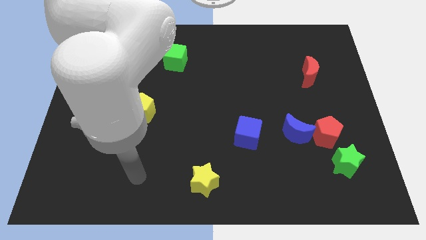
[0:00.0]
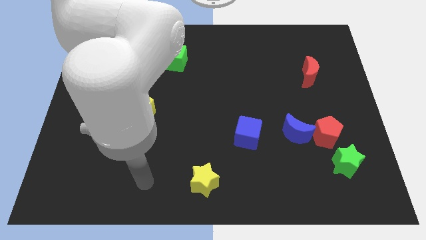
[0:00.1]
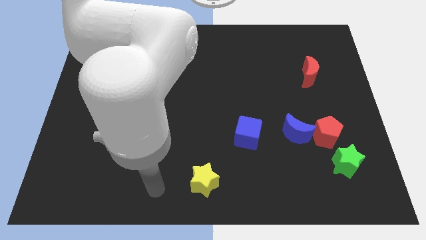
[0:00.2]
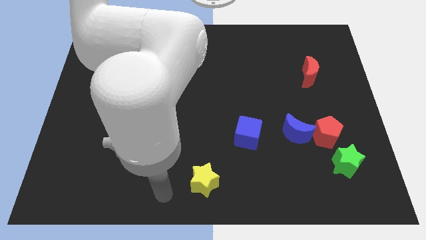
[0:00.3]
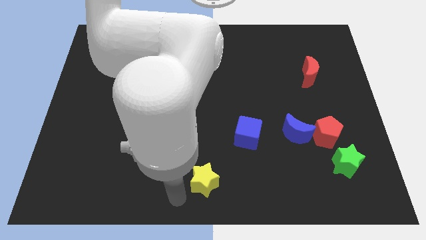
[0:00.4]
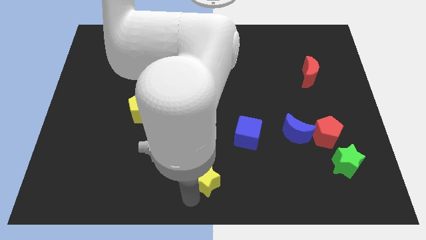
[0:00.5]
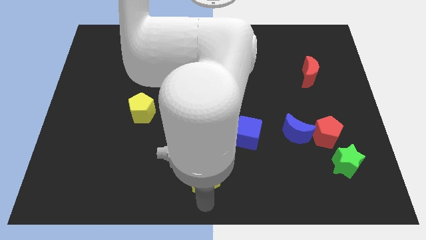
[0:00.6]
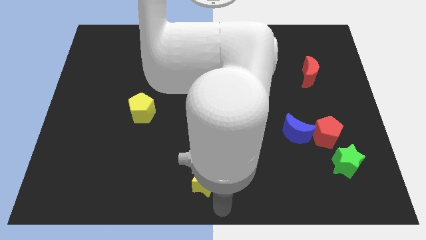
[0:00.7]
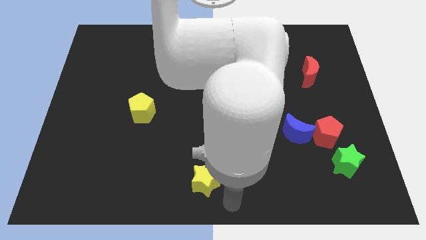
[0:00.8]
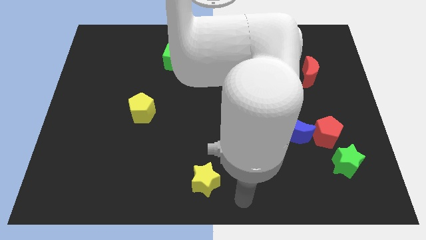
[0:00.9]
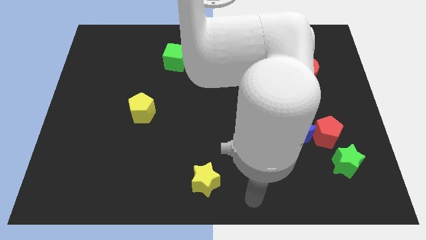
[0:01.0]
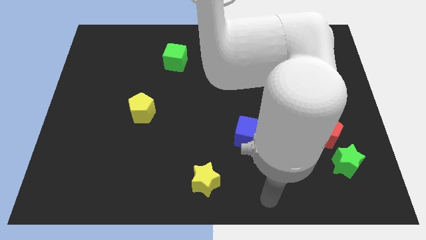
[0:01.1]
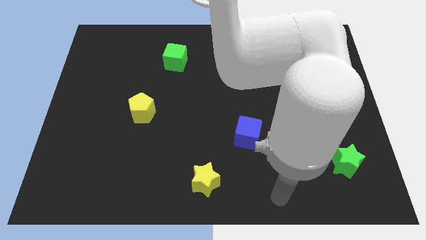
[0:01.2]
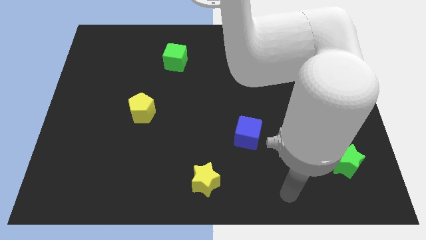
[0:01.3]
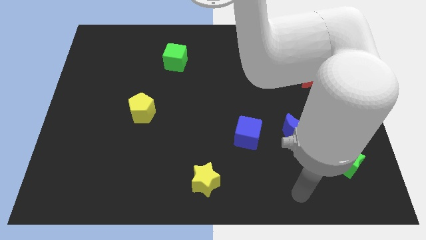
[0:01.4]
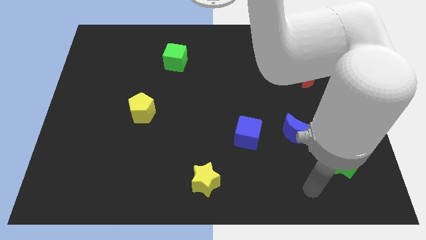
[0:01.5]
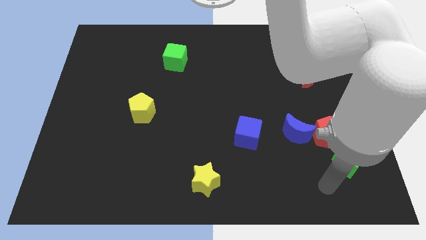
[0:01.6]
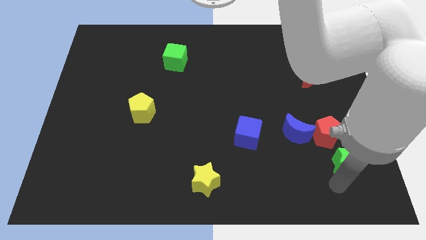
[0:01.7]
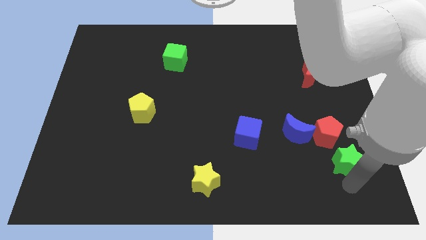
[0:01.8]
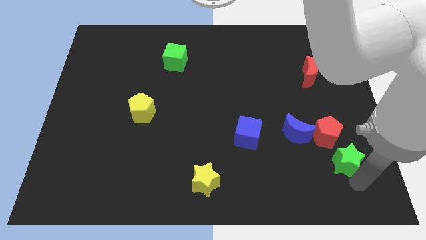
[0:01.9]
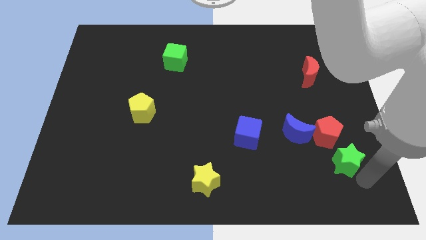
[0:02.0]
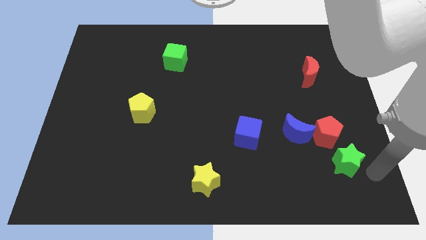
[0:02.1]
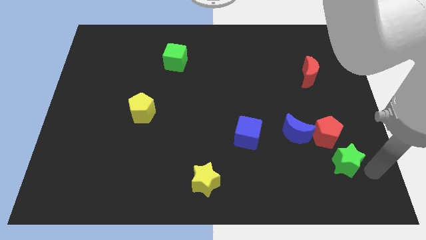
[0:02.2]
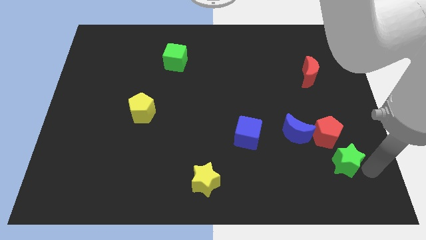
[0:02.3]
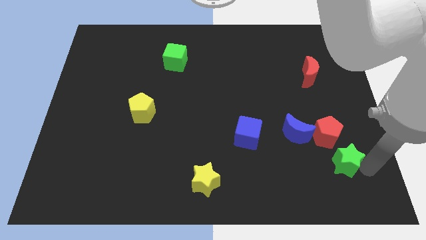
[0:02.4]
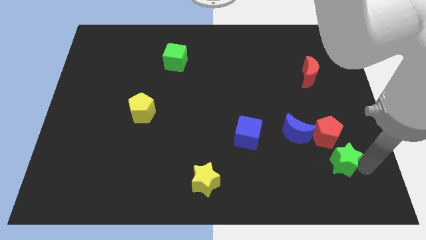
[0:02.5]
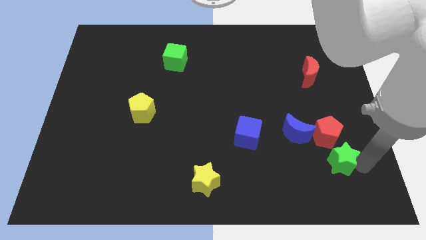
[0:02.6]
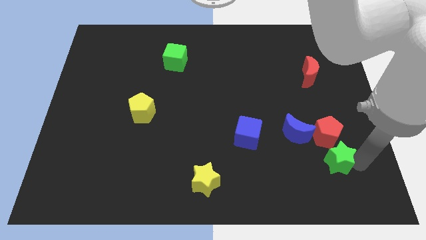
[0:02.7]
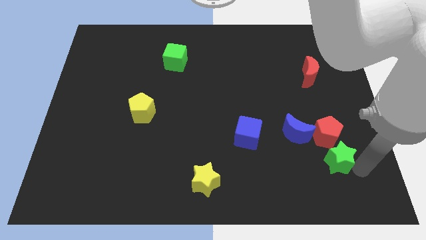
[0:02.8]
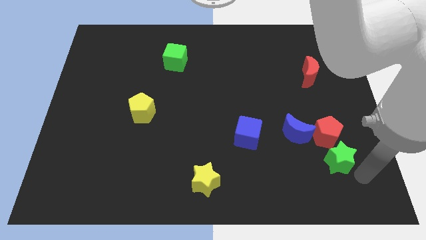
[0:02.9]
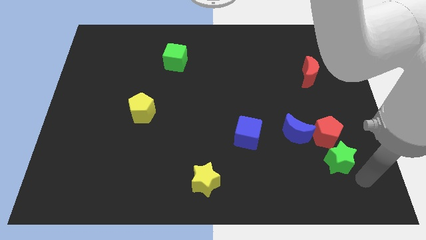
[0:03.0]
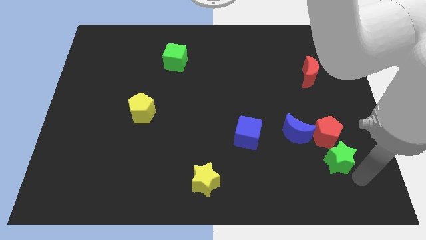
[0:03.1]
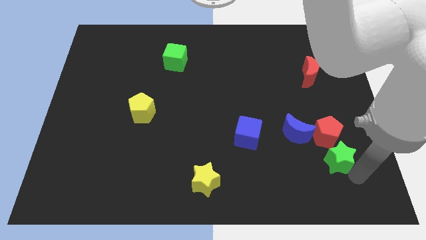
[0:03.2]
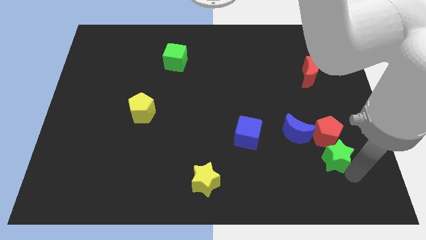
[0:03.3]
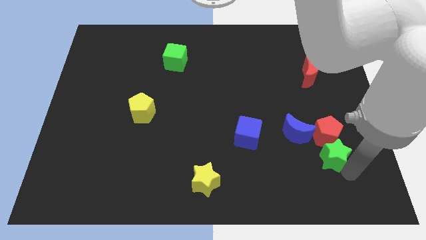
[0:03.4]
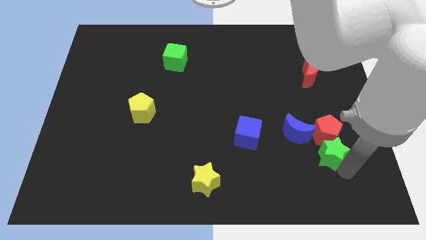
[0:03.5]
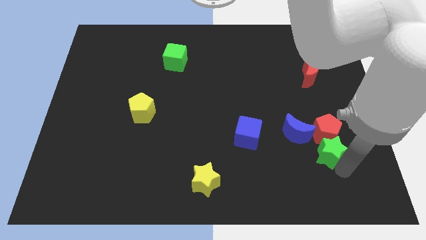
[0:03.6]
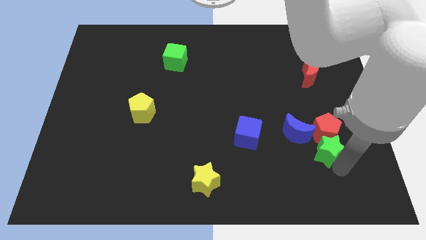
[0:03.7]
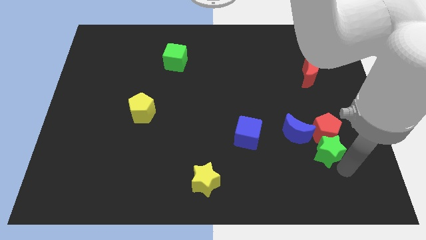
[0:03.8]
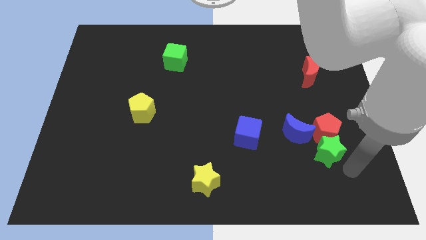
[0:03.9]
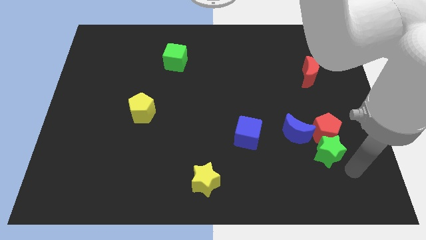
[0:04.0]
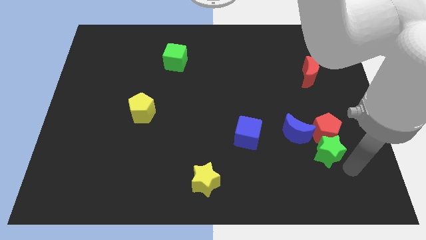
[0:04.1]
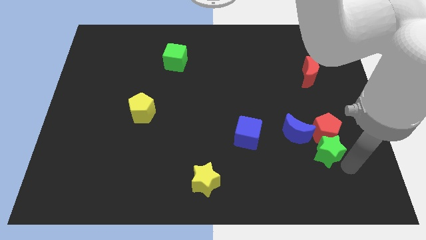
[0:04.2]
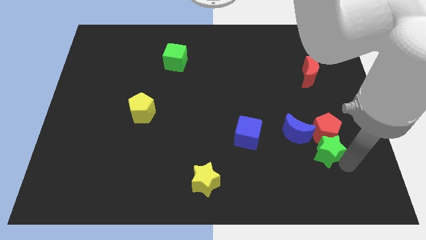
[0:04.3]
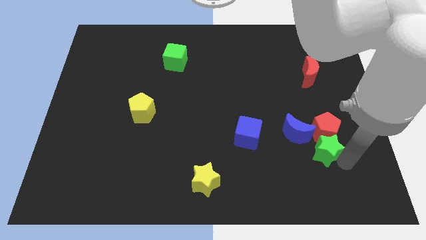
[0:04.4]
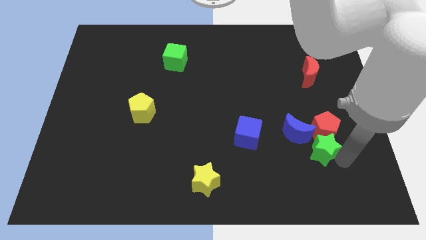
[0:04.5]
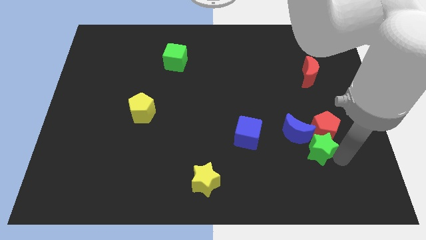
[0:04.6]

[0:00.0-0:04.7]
push the green star towards the blue moon

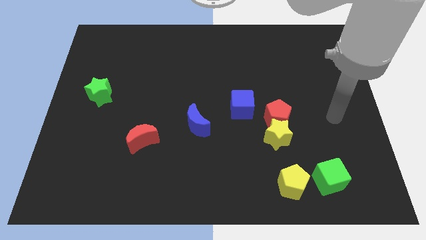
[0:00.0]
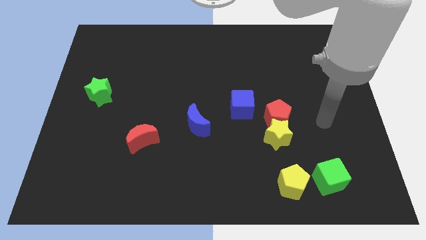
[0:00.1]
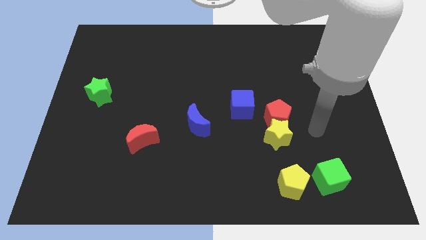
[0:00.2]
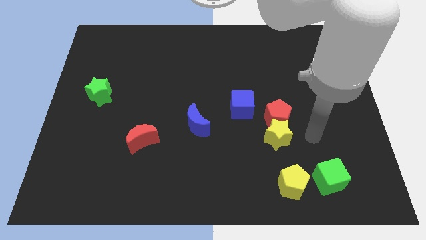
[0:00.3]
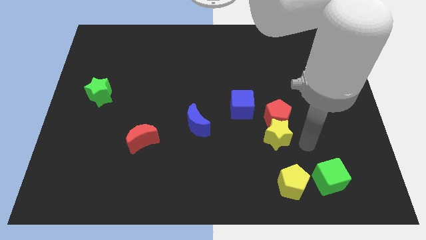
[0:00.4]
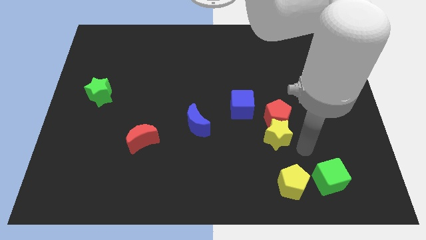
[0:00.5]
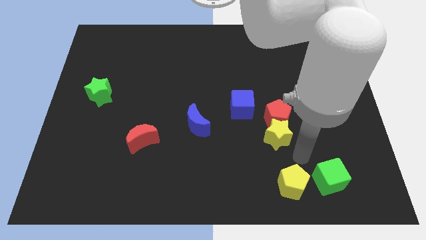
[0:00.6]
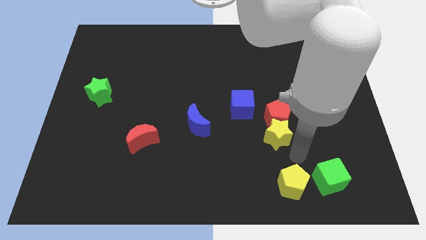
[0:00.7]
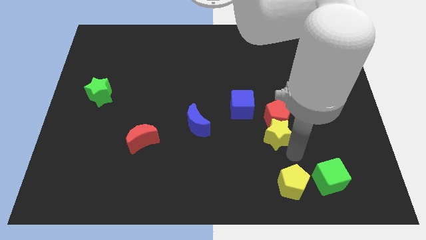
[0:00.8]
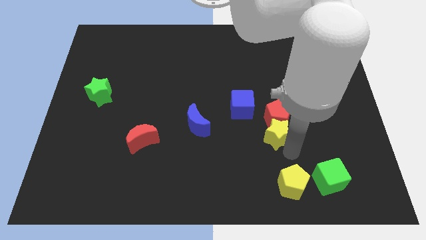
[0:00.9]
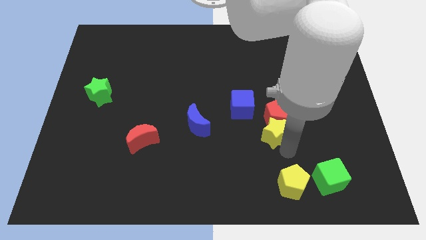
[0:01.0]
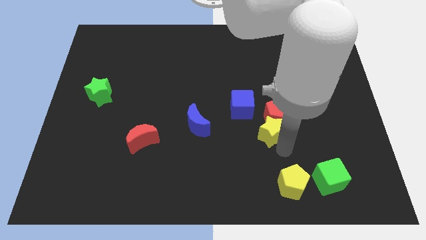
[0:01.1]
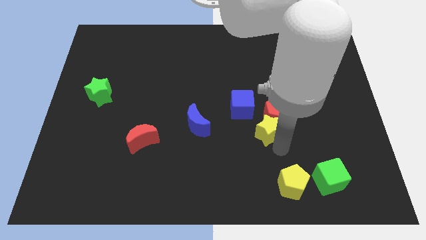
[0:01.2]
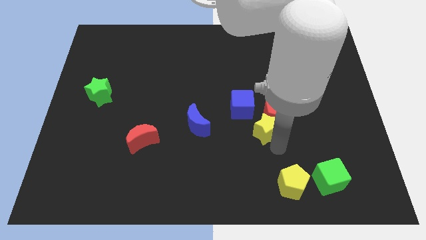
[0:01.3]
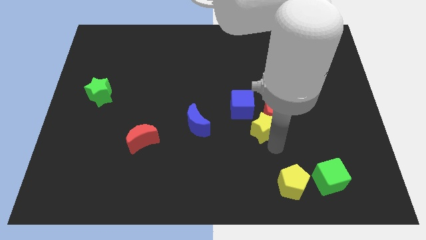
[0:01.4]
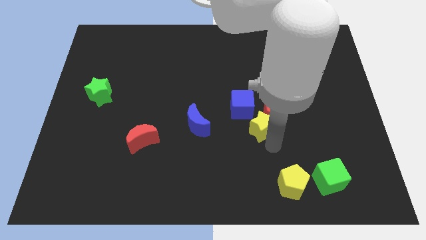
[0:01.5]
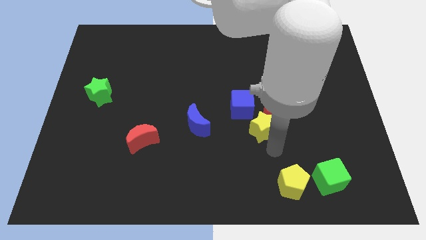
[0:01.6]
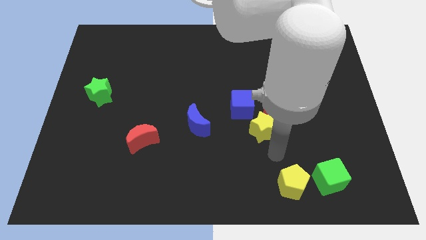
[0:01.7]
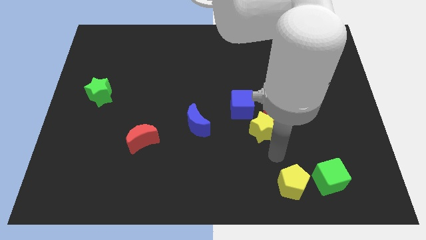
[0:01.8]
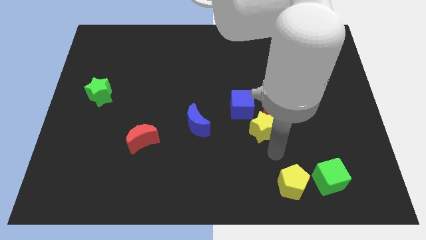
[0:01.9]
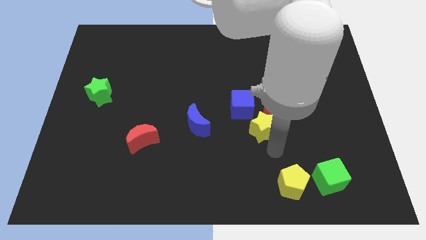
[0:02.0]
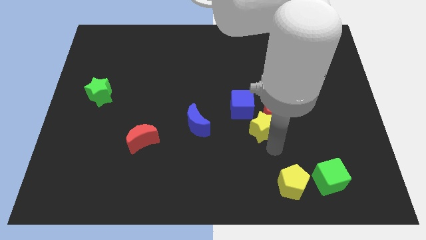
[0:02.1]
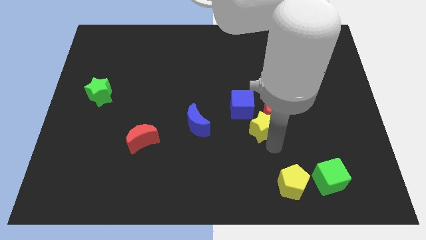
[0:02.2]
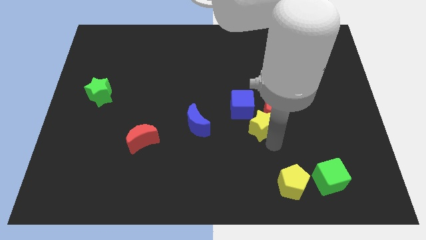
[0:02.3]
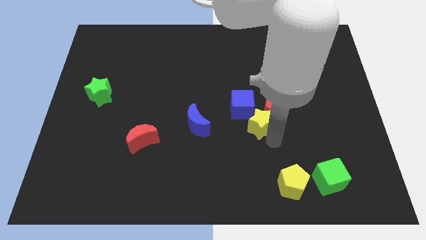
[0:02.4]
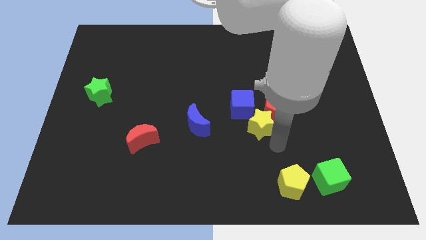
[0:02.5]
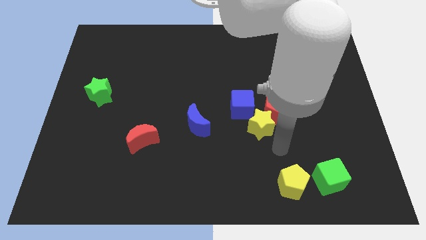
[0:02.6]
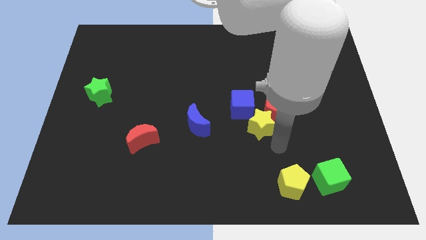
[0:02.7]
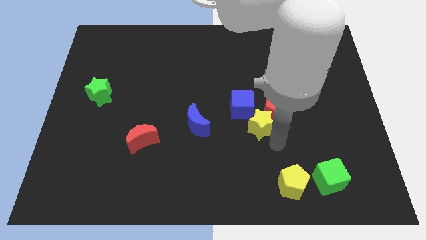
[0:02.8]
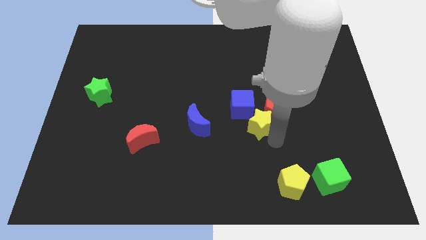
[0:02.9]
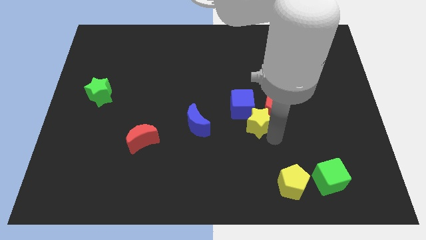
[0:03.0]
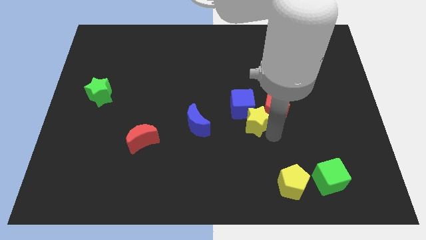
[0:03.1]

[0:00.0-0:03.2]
slide the yellow star towards the blue cube
